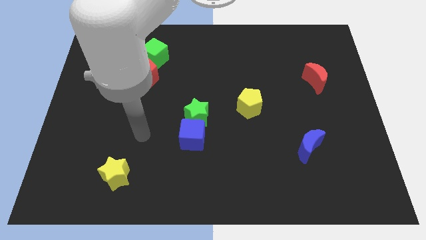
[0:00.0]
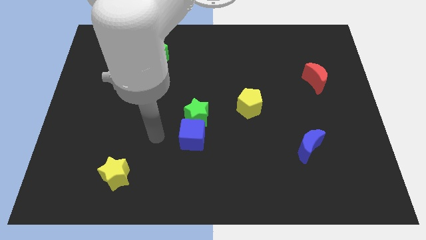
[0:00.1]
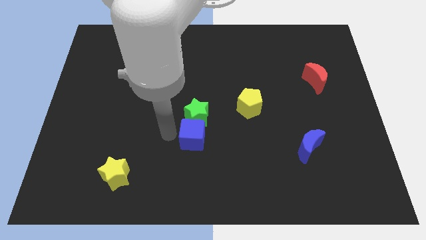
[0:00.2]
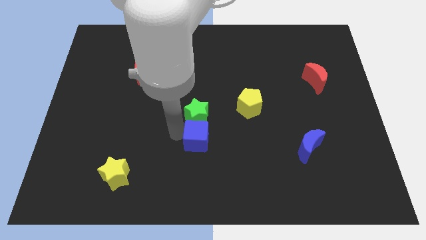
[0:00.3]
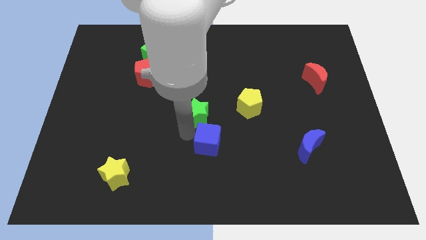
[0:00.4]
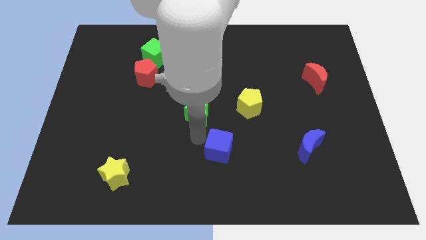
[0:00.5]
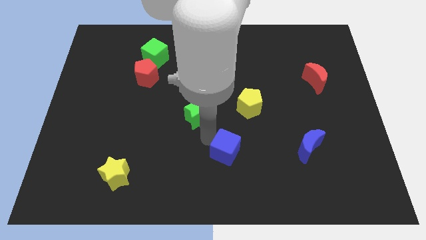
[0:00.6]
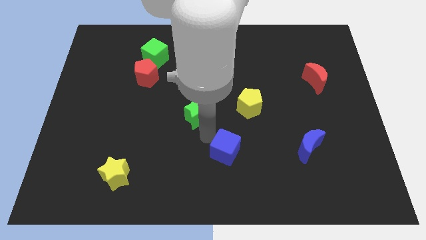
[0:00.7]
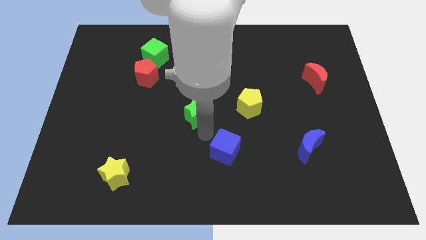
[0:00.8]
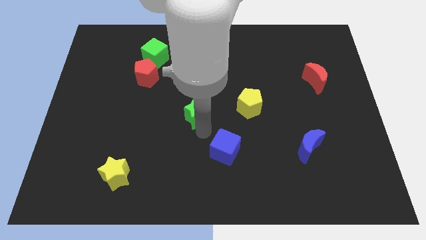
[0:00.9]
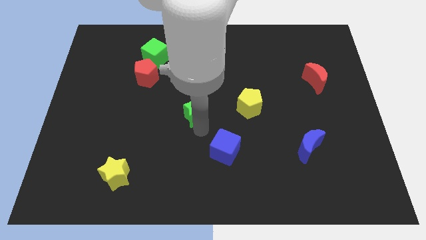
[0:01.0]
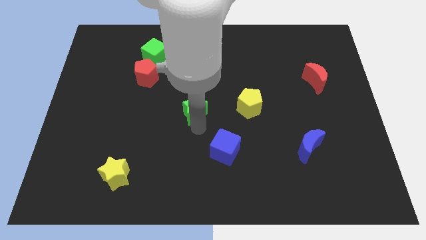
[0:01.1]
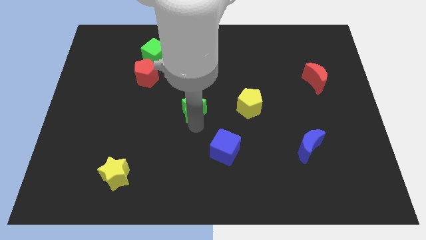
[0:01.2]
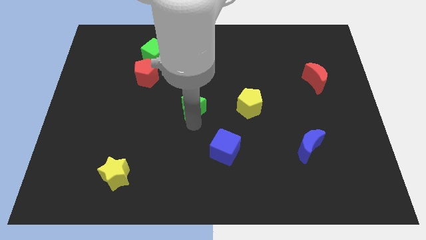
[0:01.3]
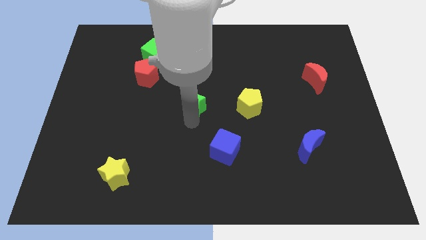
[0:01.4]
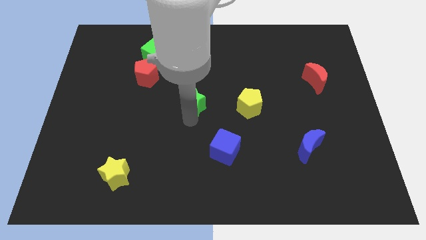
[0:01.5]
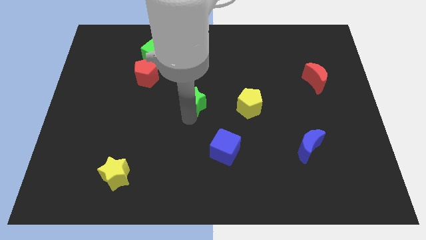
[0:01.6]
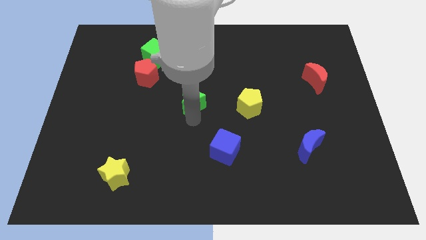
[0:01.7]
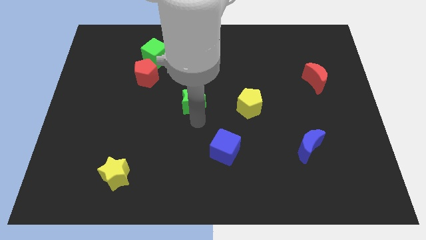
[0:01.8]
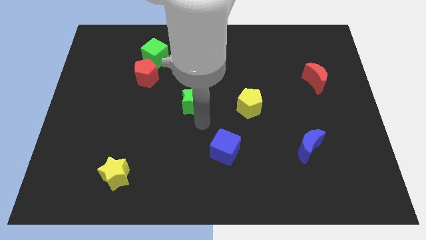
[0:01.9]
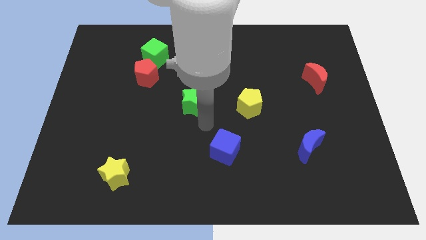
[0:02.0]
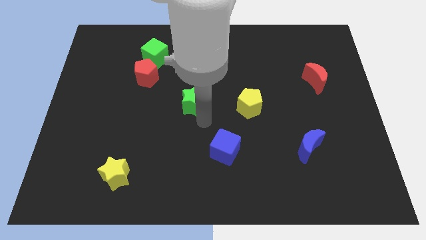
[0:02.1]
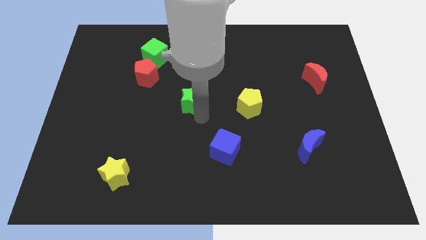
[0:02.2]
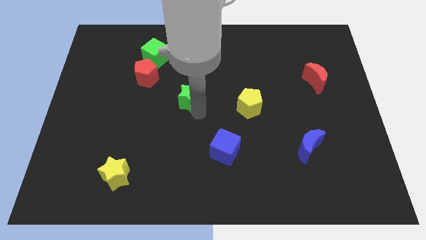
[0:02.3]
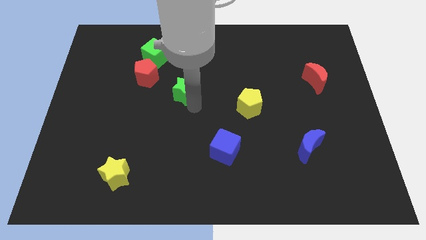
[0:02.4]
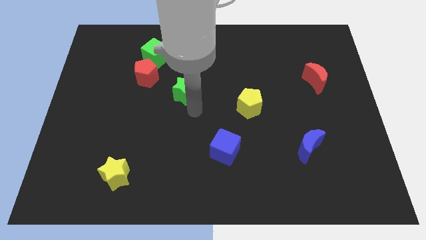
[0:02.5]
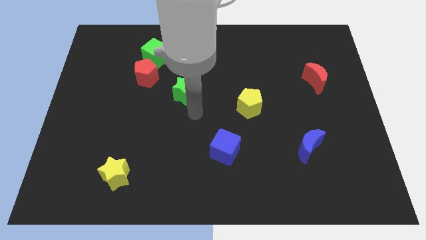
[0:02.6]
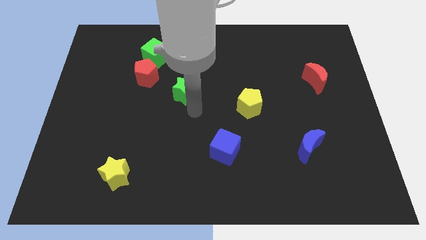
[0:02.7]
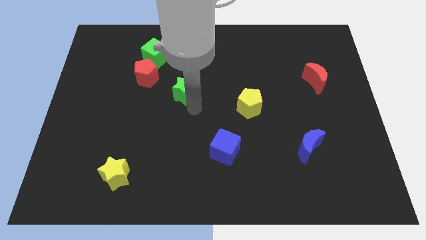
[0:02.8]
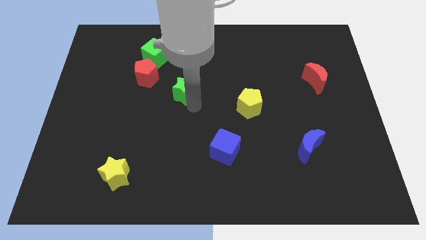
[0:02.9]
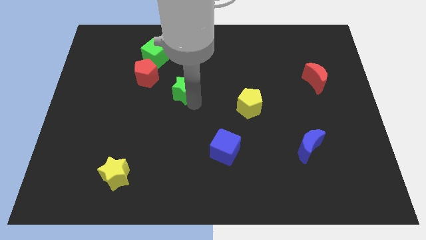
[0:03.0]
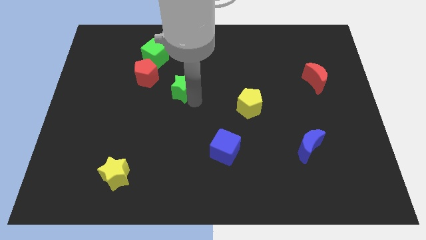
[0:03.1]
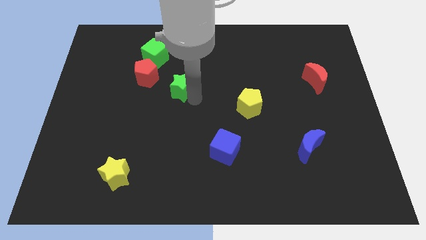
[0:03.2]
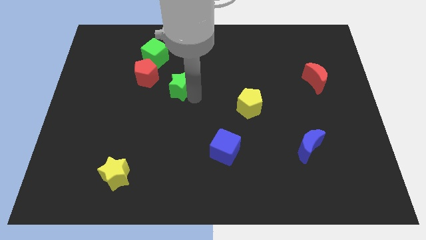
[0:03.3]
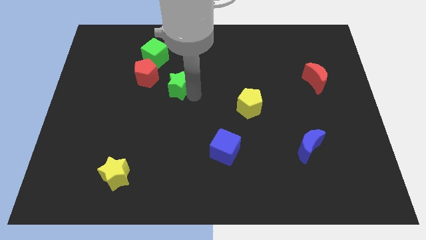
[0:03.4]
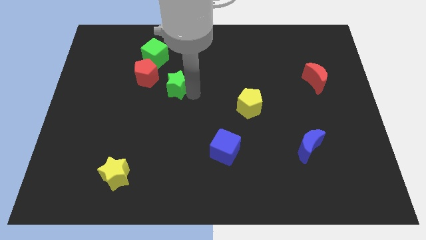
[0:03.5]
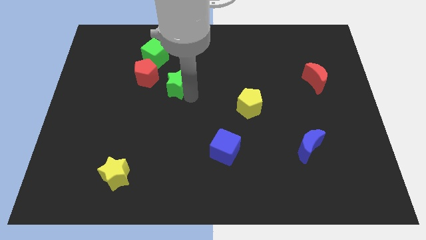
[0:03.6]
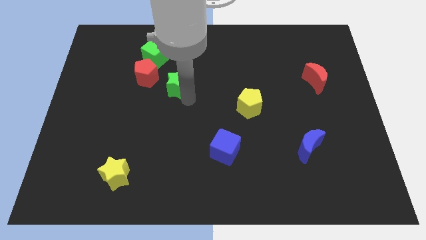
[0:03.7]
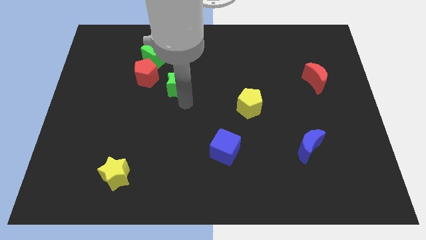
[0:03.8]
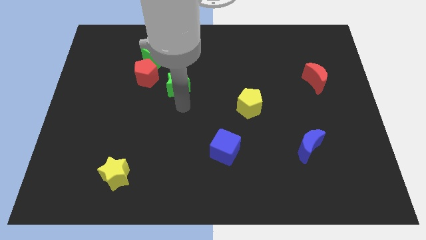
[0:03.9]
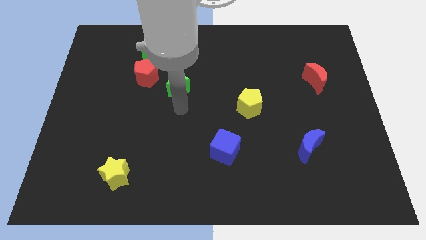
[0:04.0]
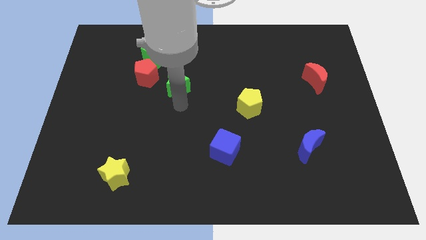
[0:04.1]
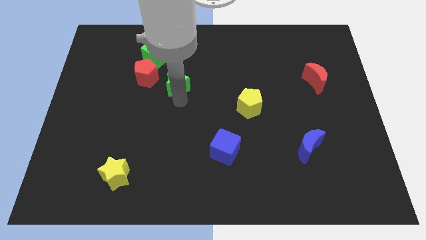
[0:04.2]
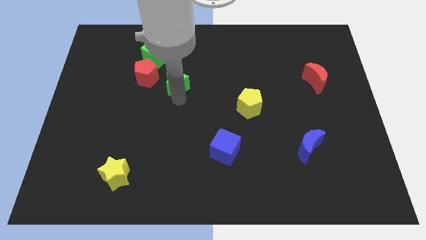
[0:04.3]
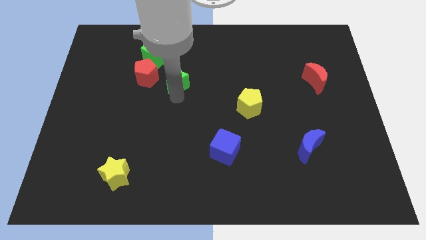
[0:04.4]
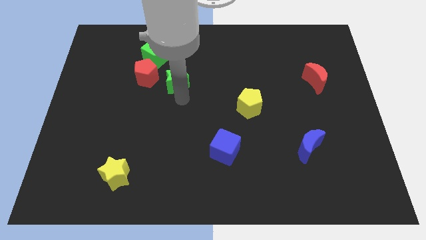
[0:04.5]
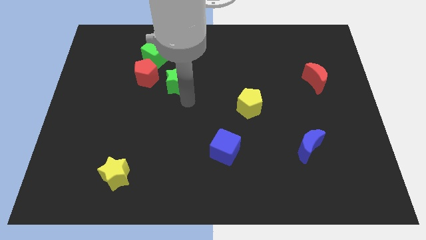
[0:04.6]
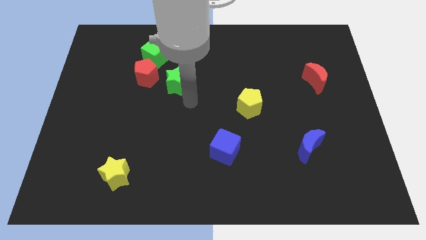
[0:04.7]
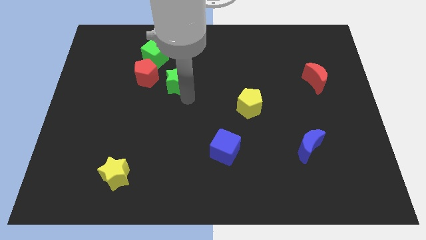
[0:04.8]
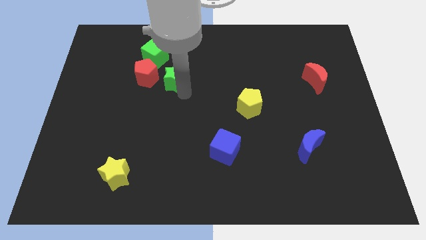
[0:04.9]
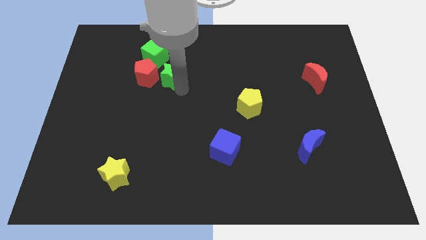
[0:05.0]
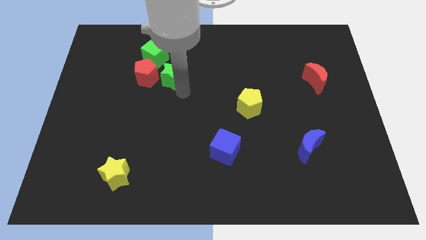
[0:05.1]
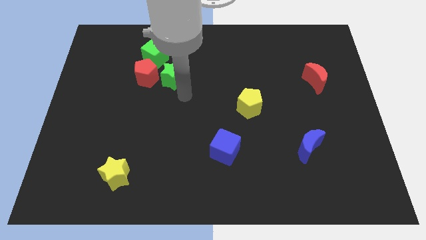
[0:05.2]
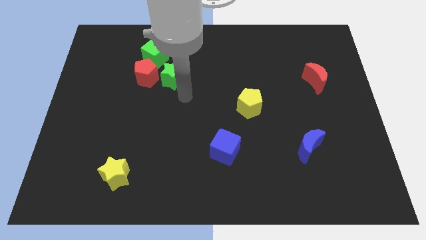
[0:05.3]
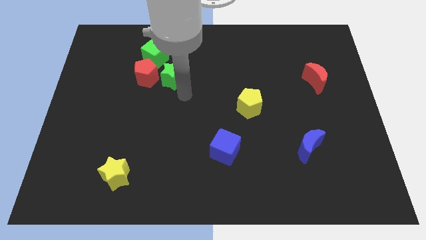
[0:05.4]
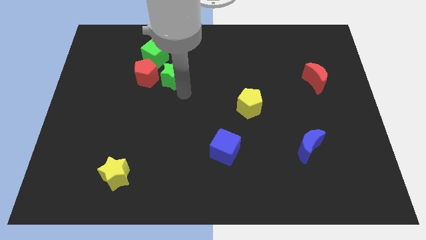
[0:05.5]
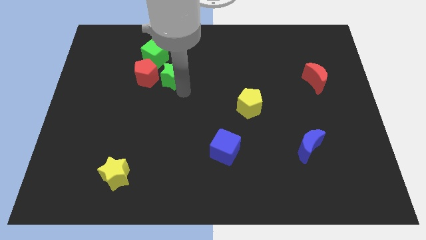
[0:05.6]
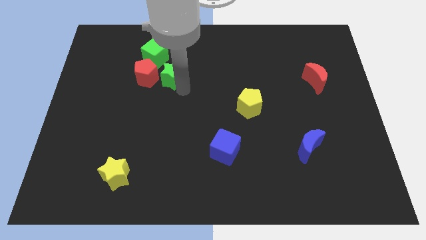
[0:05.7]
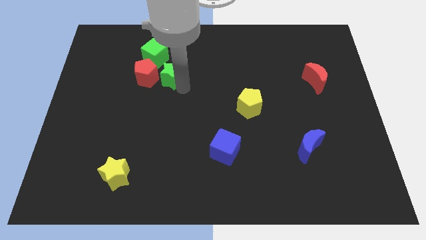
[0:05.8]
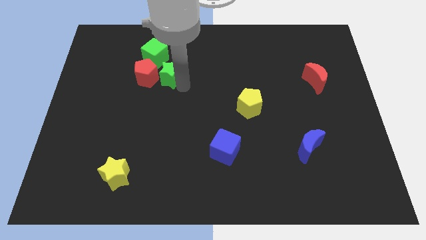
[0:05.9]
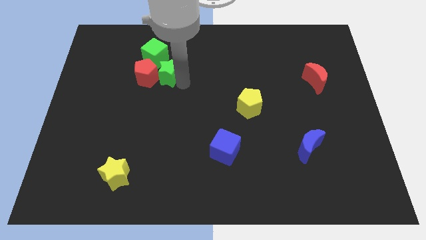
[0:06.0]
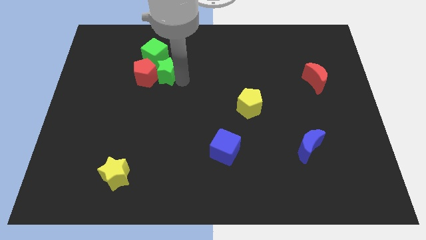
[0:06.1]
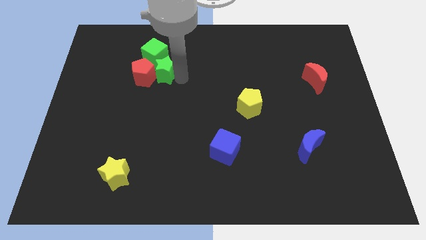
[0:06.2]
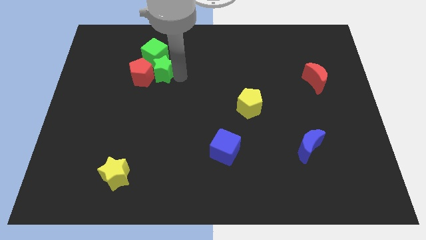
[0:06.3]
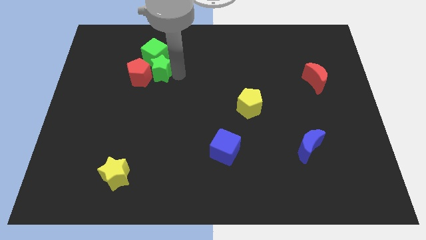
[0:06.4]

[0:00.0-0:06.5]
push the green star to the green cube
